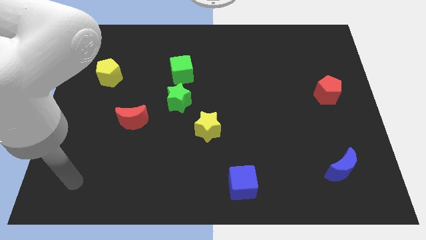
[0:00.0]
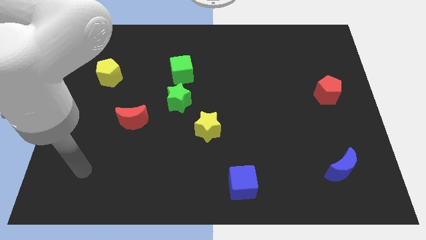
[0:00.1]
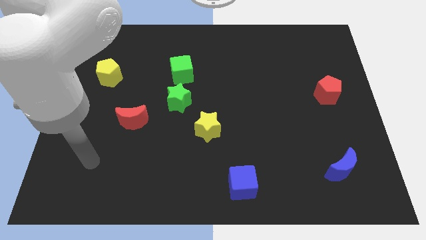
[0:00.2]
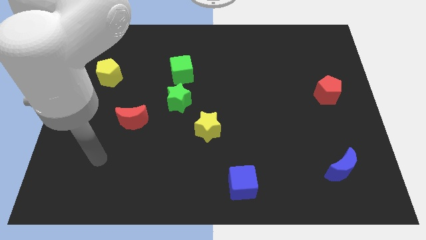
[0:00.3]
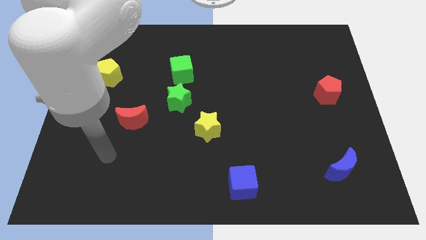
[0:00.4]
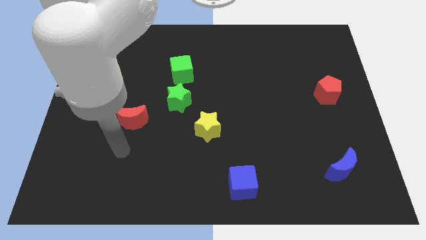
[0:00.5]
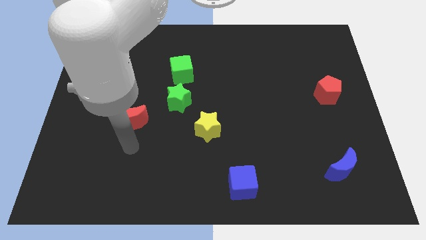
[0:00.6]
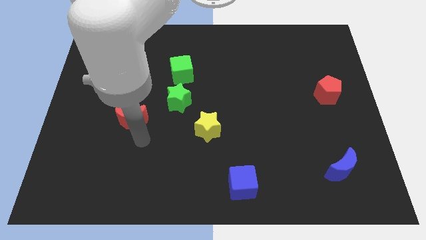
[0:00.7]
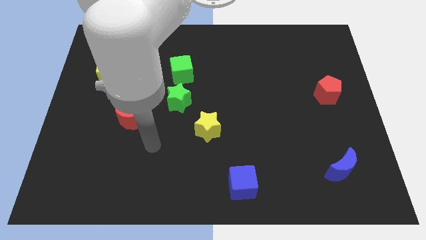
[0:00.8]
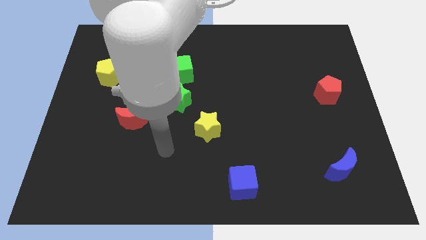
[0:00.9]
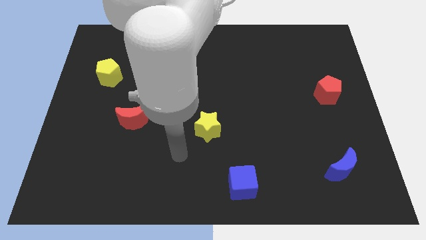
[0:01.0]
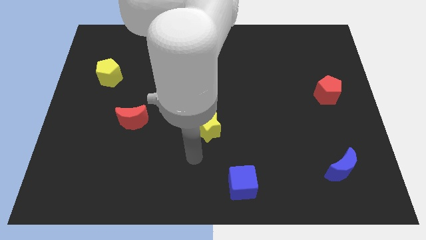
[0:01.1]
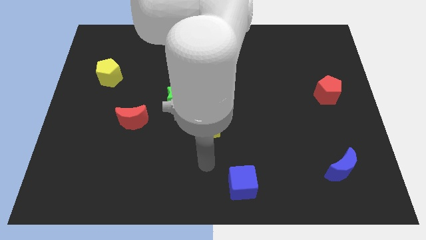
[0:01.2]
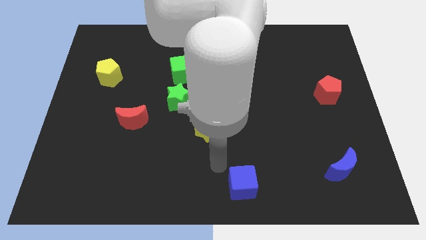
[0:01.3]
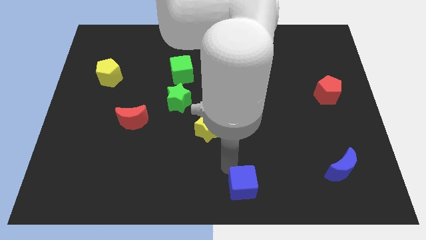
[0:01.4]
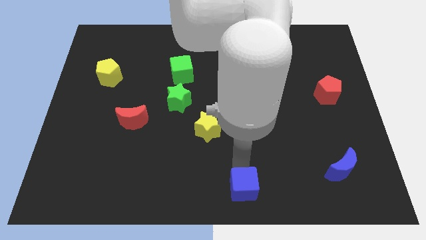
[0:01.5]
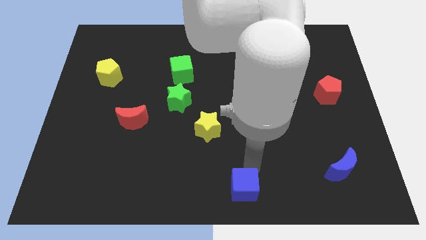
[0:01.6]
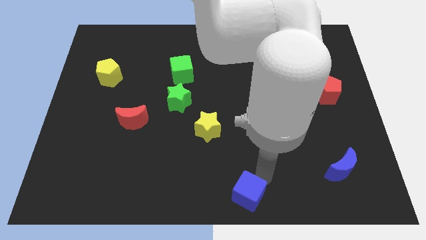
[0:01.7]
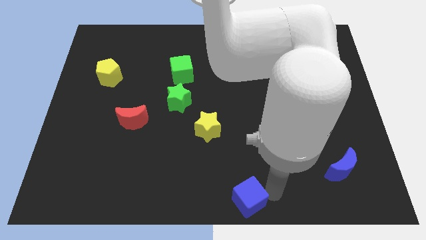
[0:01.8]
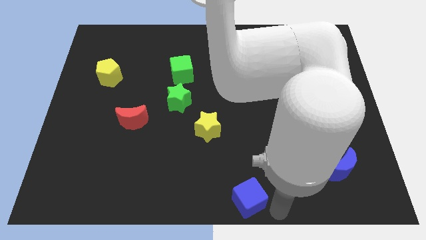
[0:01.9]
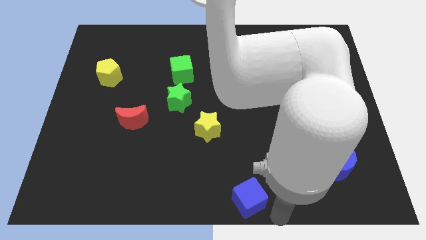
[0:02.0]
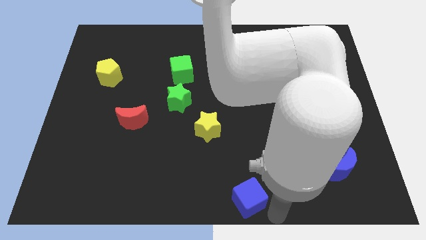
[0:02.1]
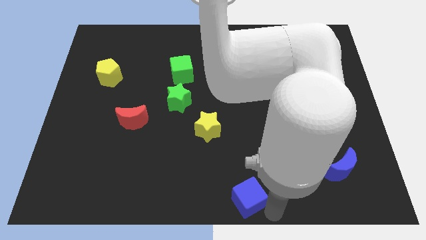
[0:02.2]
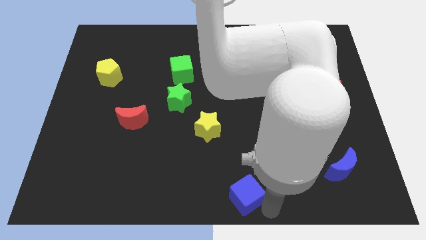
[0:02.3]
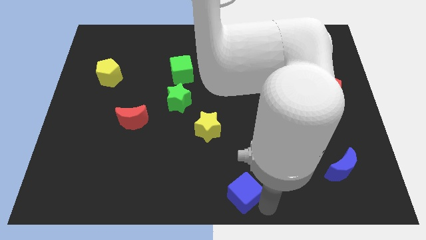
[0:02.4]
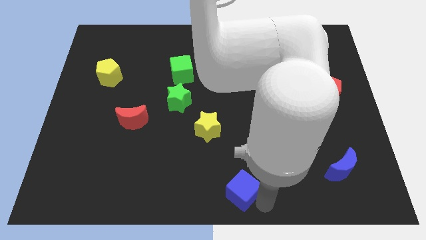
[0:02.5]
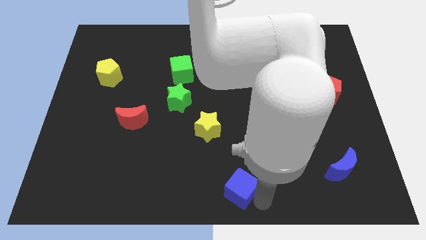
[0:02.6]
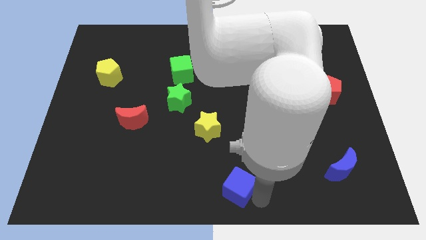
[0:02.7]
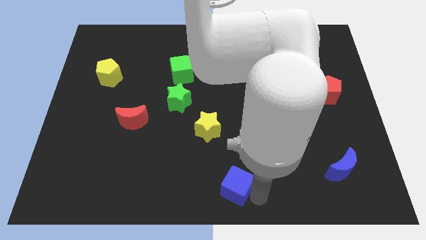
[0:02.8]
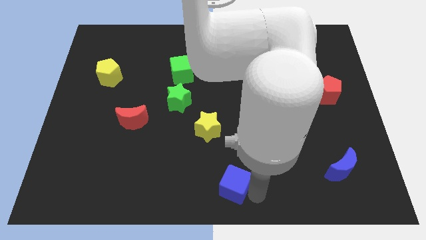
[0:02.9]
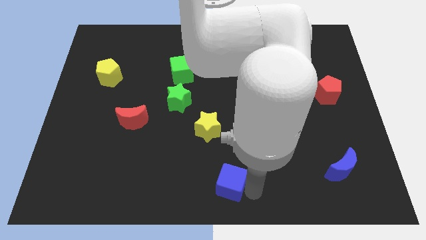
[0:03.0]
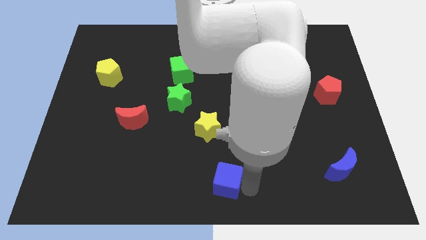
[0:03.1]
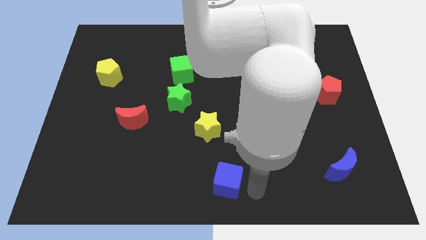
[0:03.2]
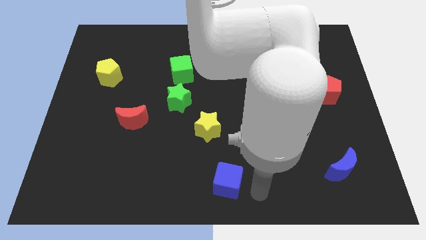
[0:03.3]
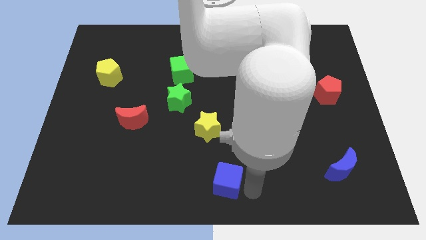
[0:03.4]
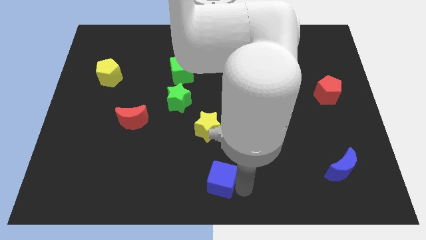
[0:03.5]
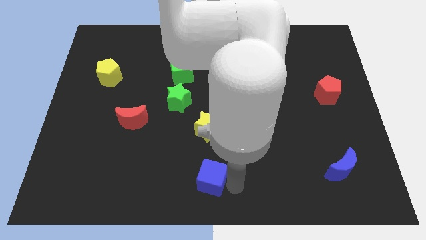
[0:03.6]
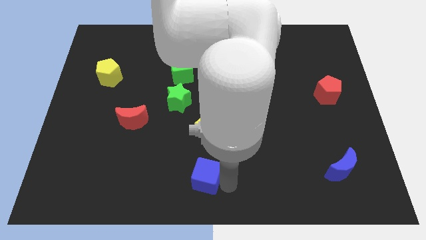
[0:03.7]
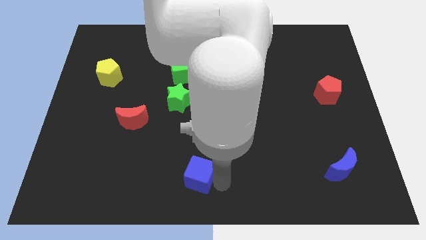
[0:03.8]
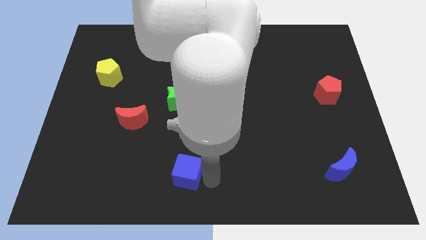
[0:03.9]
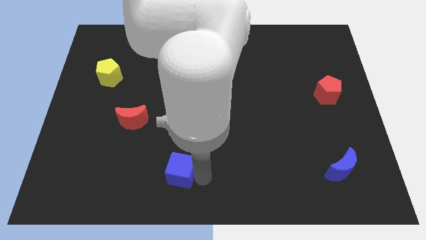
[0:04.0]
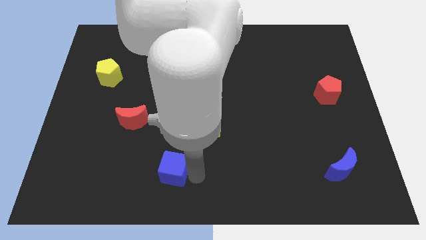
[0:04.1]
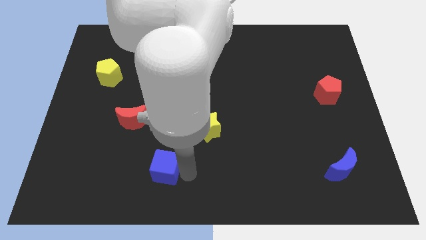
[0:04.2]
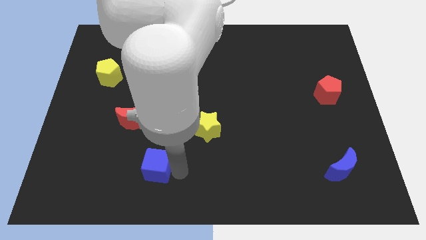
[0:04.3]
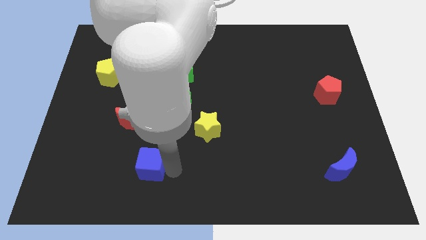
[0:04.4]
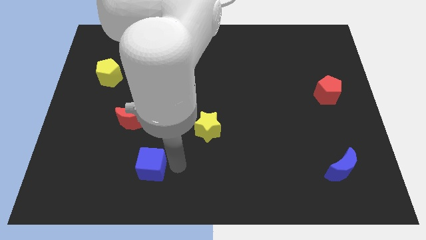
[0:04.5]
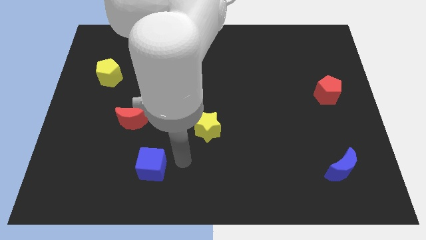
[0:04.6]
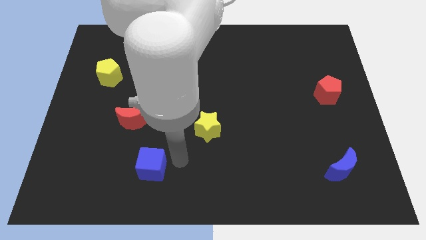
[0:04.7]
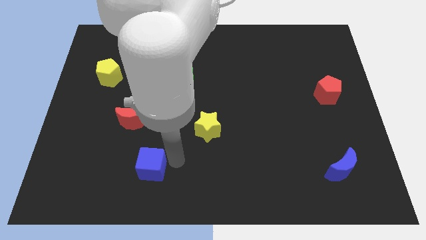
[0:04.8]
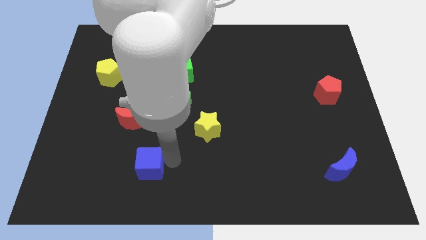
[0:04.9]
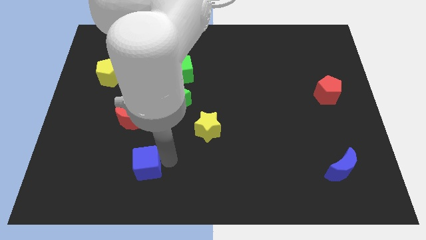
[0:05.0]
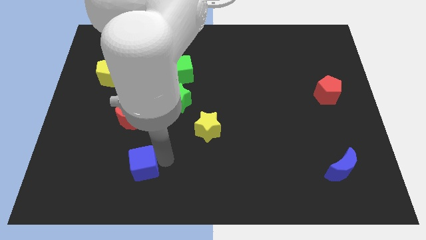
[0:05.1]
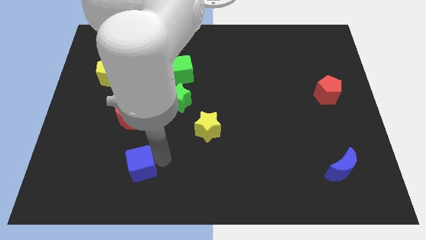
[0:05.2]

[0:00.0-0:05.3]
slide the blue cube to the left

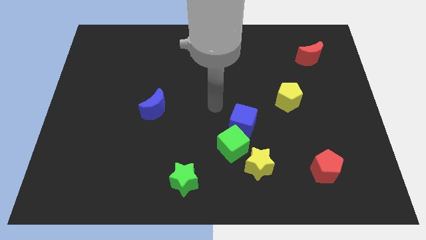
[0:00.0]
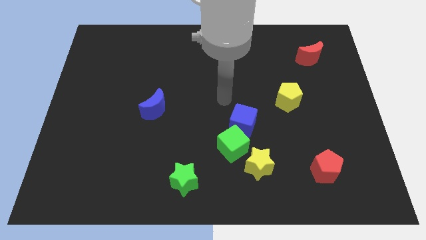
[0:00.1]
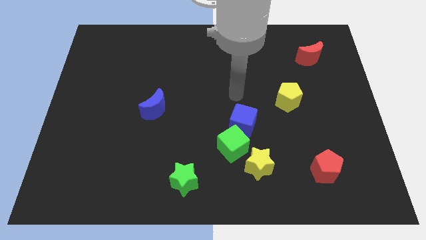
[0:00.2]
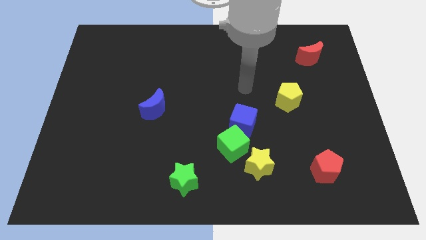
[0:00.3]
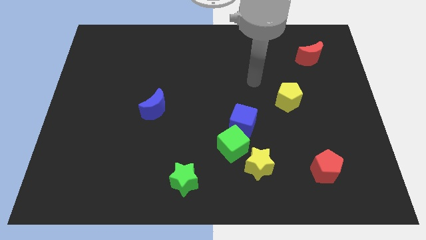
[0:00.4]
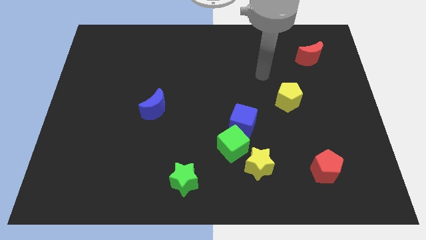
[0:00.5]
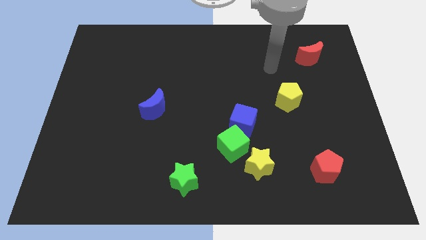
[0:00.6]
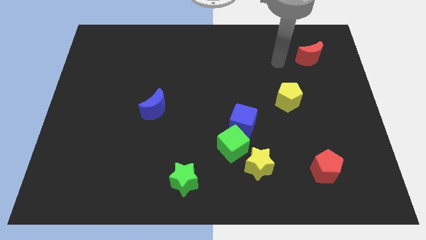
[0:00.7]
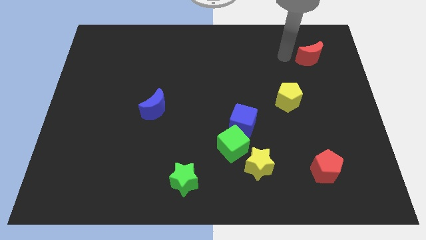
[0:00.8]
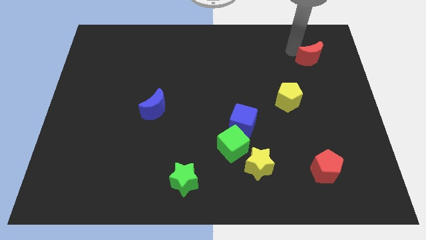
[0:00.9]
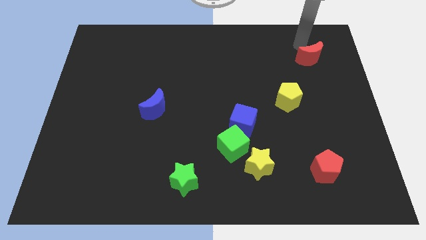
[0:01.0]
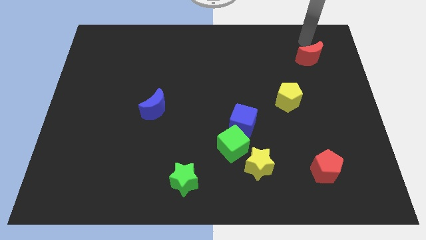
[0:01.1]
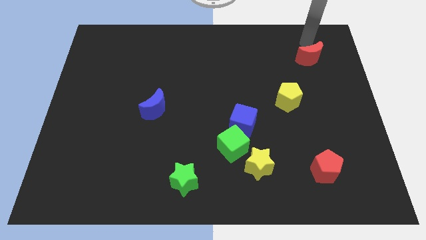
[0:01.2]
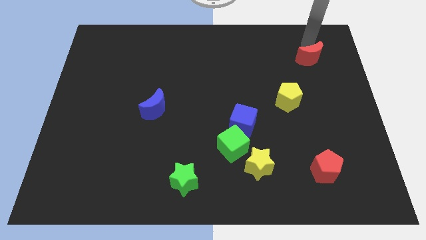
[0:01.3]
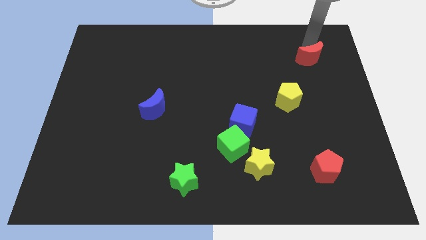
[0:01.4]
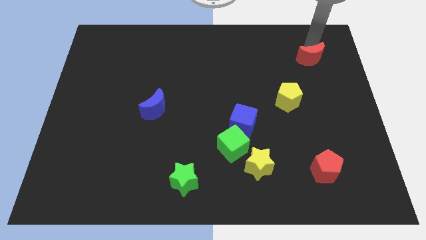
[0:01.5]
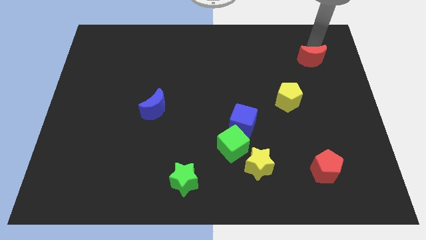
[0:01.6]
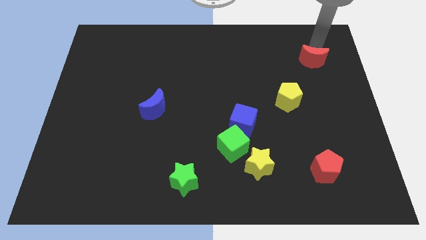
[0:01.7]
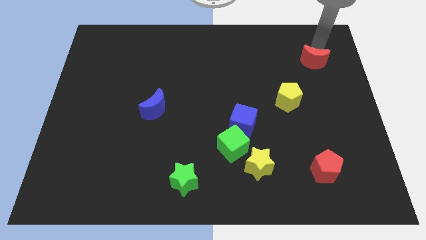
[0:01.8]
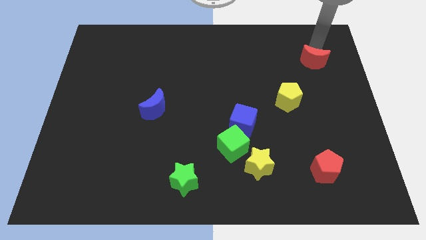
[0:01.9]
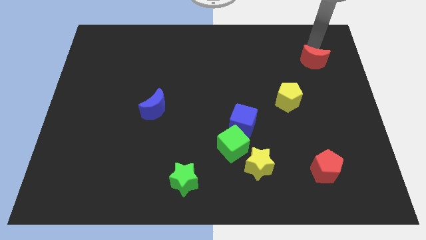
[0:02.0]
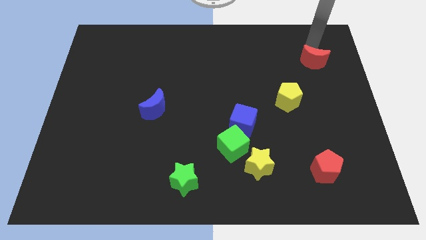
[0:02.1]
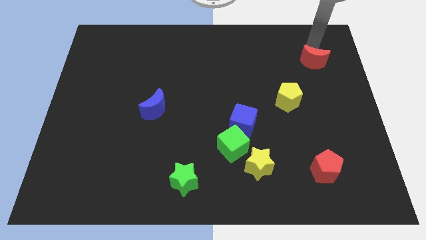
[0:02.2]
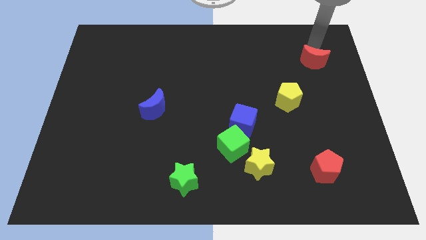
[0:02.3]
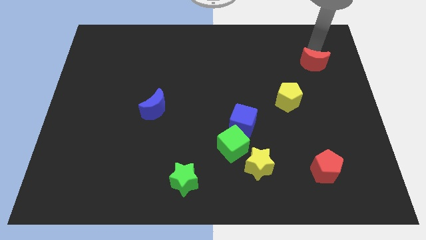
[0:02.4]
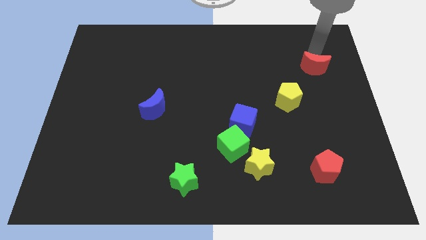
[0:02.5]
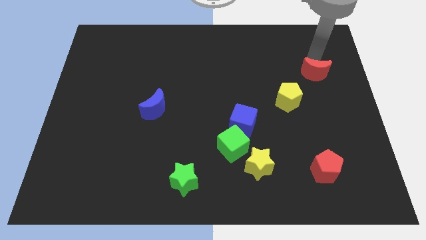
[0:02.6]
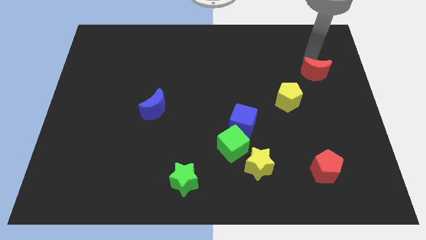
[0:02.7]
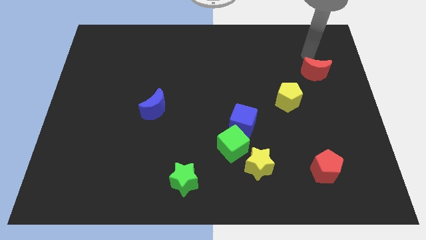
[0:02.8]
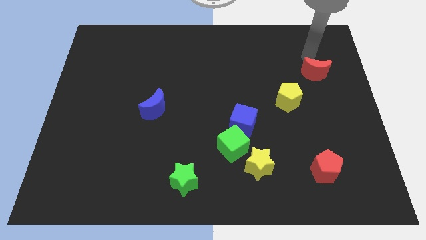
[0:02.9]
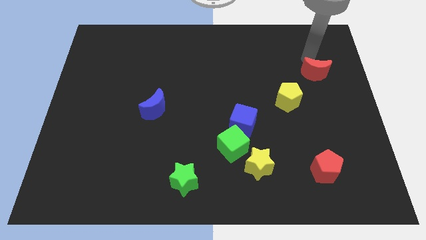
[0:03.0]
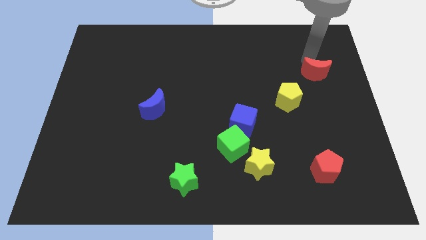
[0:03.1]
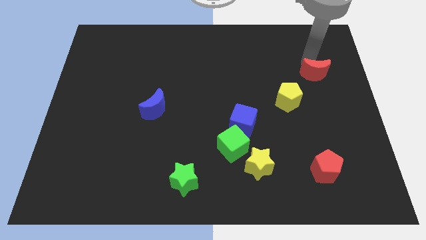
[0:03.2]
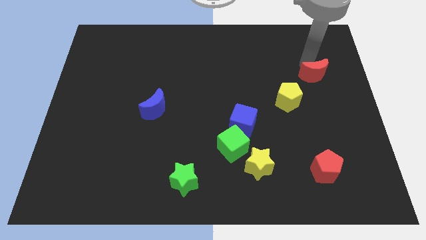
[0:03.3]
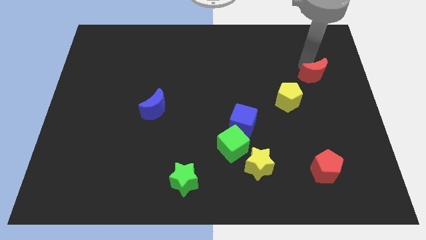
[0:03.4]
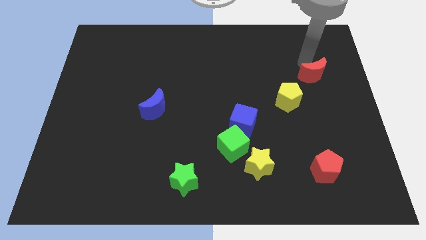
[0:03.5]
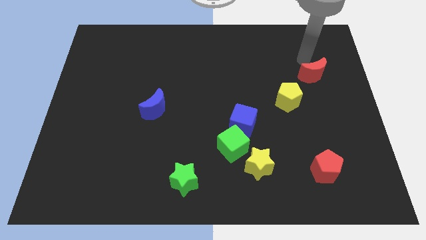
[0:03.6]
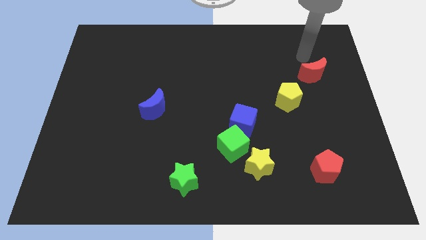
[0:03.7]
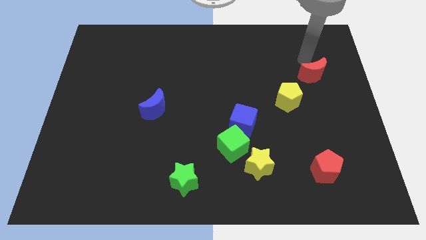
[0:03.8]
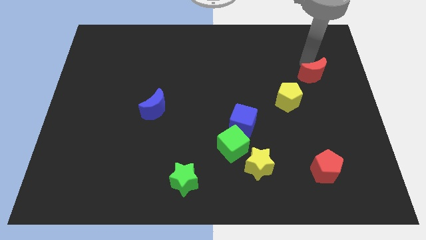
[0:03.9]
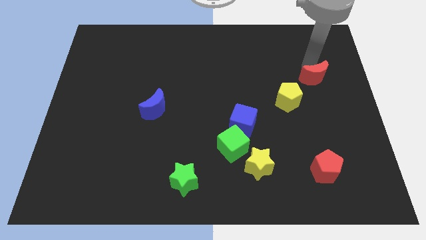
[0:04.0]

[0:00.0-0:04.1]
push the red moon down slightly
